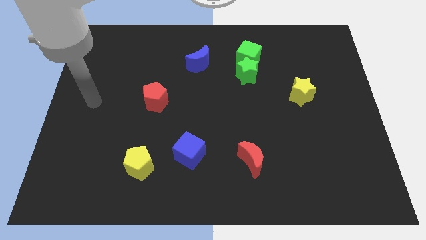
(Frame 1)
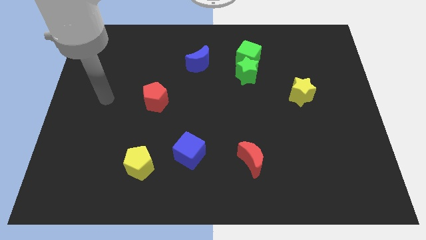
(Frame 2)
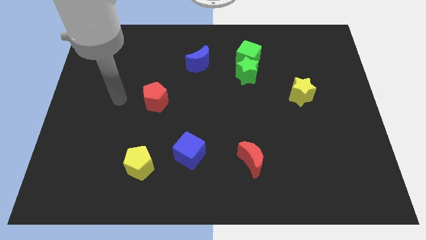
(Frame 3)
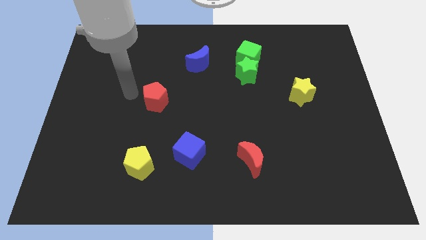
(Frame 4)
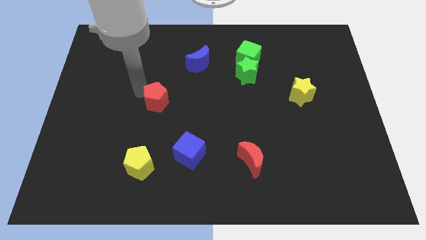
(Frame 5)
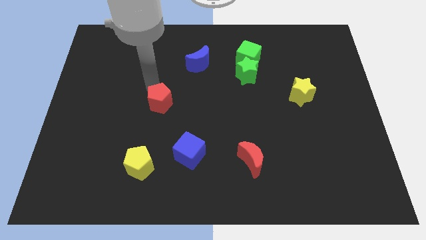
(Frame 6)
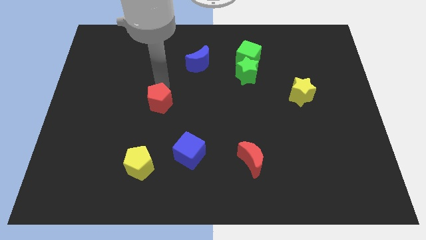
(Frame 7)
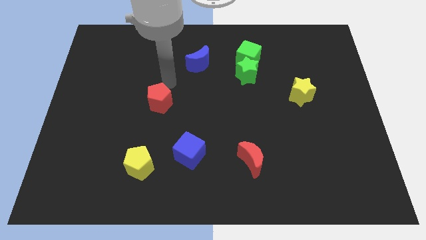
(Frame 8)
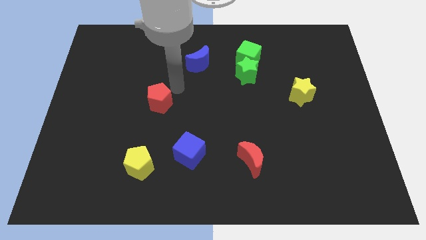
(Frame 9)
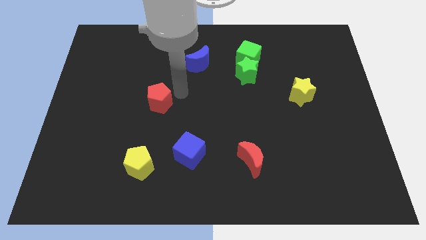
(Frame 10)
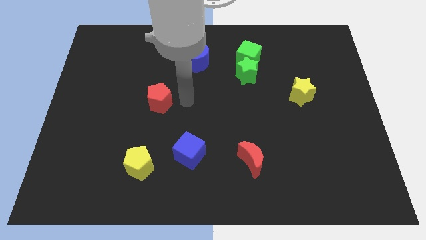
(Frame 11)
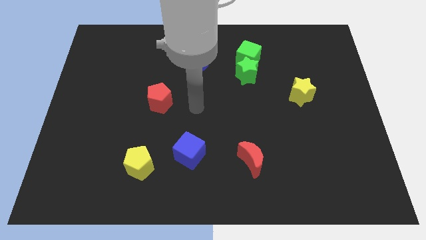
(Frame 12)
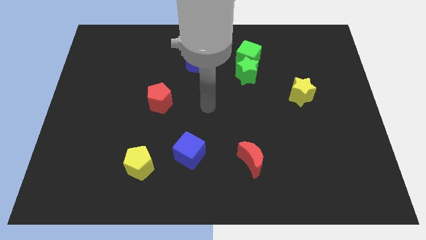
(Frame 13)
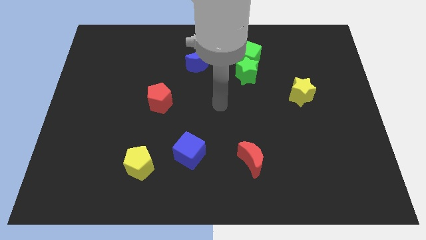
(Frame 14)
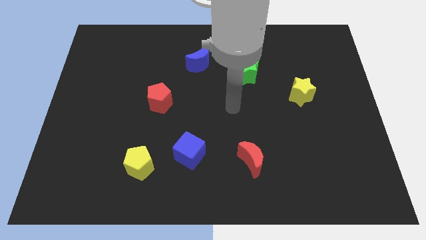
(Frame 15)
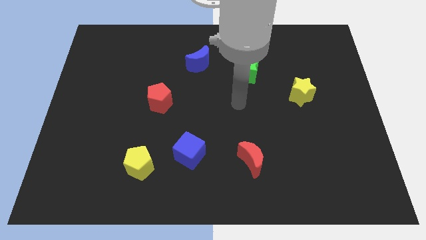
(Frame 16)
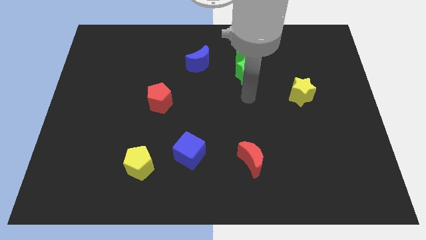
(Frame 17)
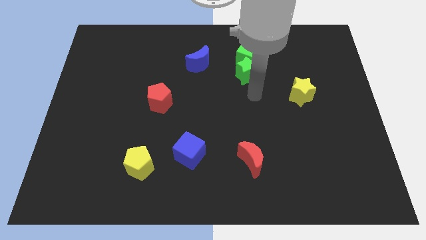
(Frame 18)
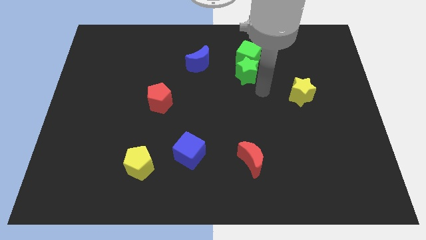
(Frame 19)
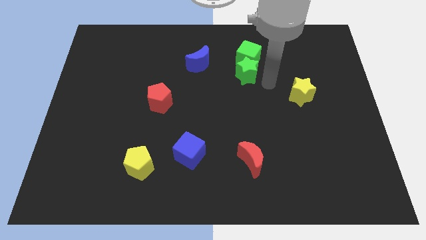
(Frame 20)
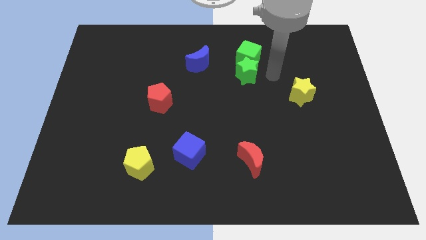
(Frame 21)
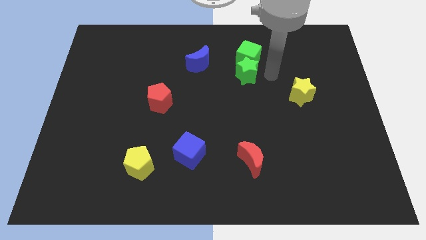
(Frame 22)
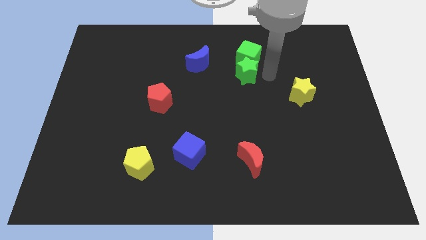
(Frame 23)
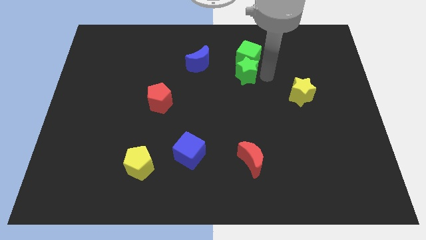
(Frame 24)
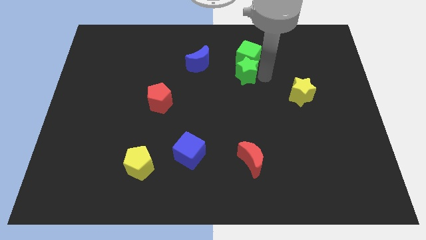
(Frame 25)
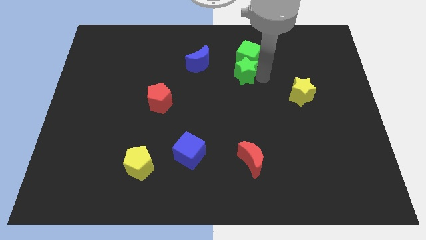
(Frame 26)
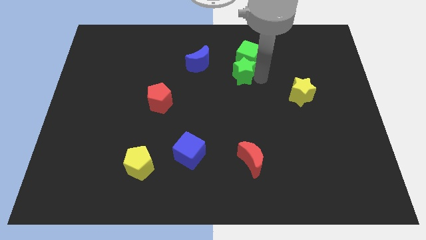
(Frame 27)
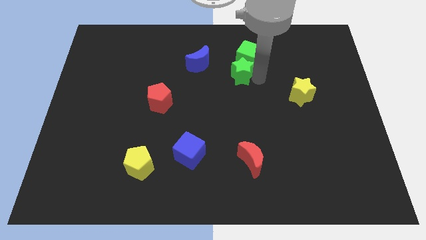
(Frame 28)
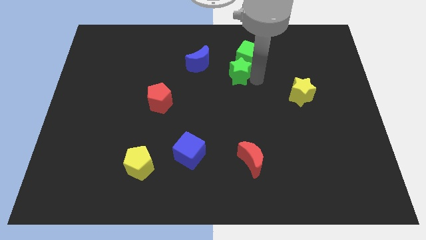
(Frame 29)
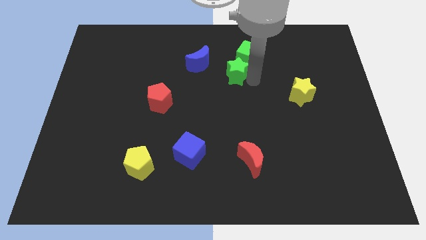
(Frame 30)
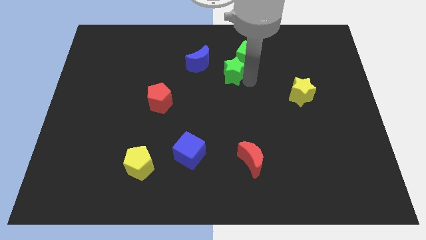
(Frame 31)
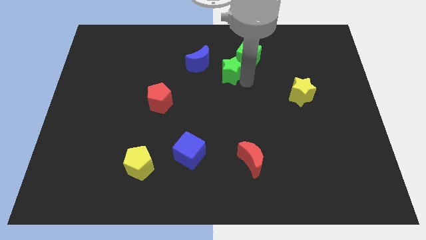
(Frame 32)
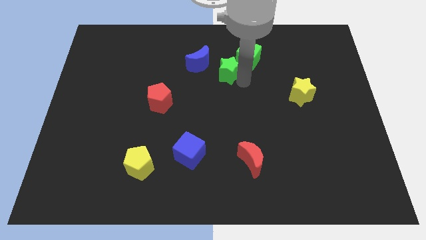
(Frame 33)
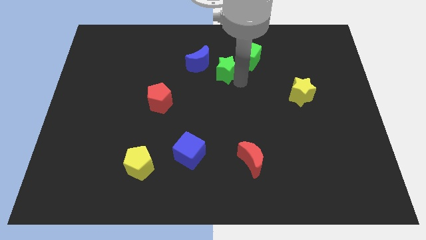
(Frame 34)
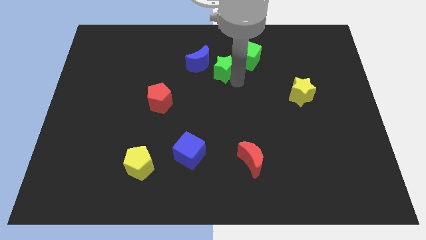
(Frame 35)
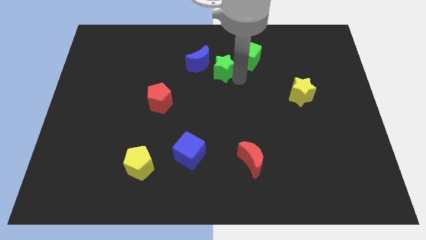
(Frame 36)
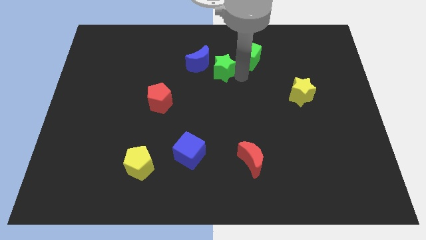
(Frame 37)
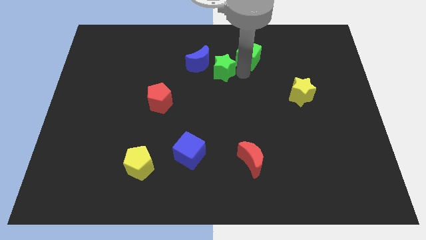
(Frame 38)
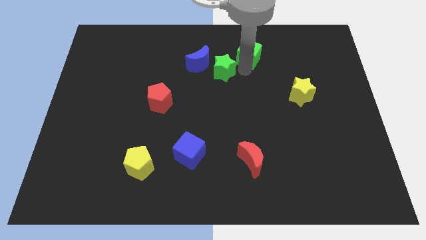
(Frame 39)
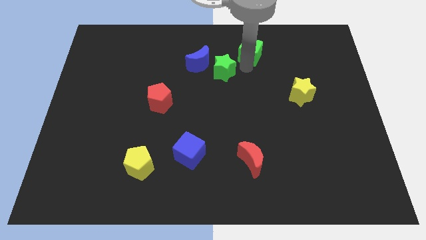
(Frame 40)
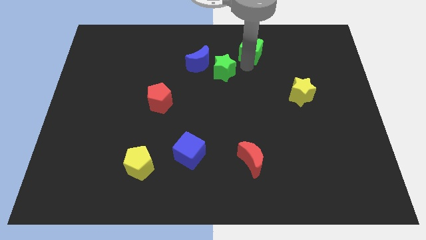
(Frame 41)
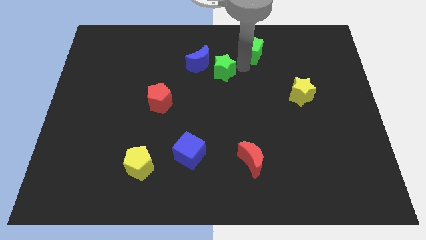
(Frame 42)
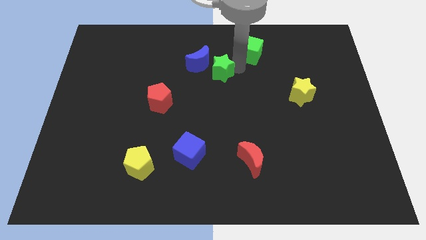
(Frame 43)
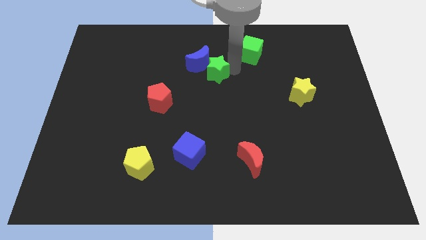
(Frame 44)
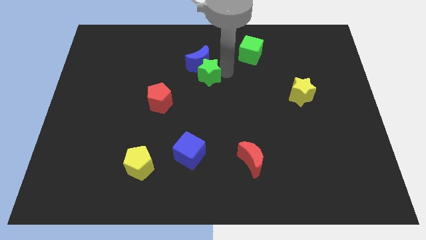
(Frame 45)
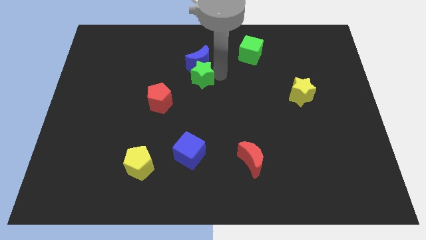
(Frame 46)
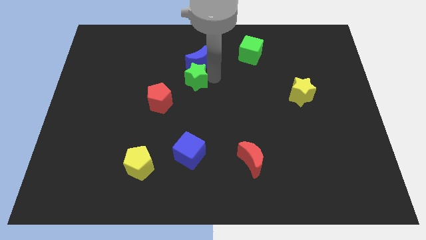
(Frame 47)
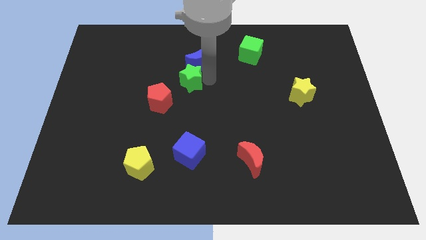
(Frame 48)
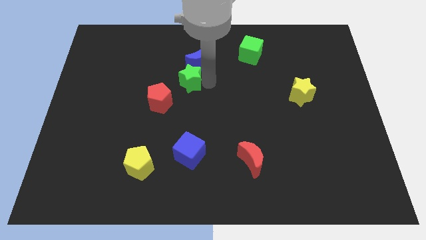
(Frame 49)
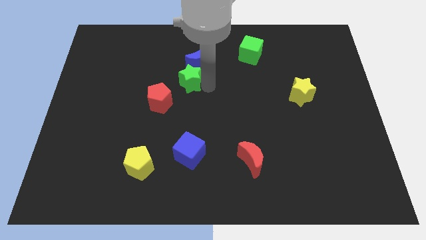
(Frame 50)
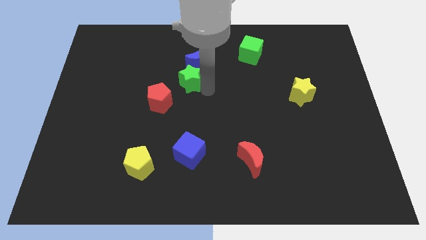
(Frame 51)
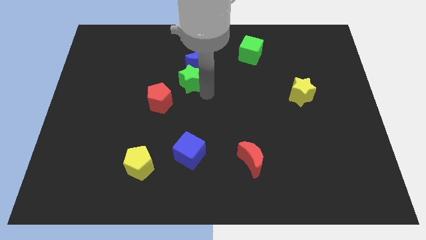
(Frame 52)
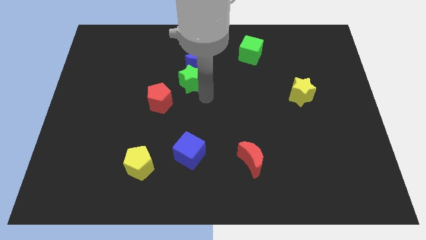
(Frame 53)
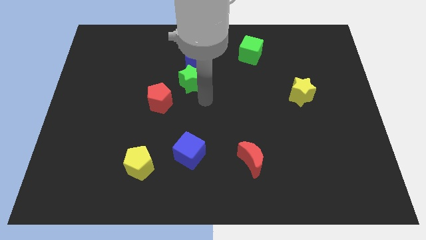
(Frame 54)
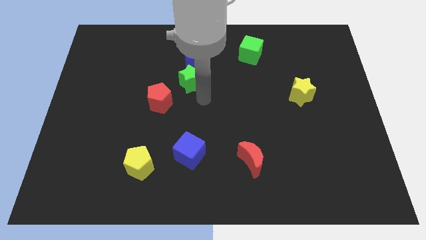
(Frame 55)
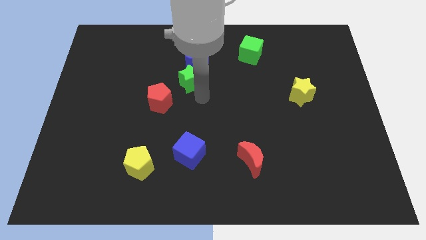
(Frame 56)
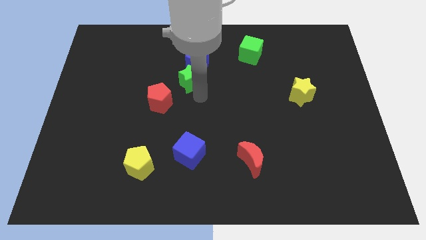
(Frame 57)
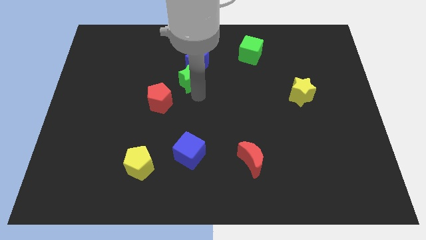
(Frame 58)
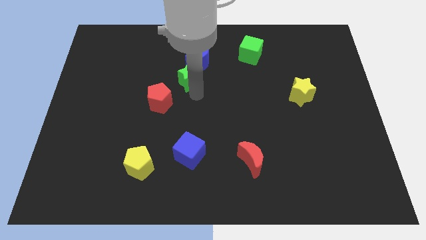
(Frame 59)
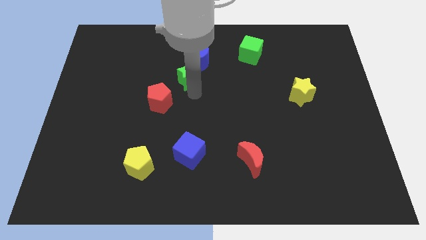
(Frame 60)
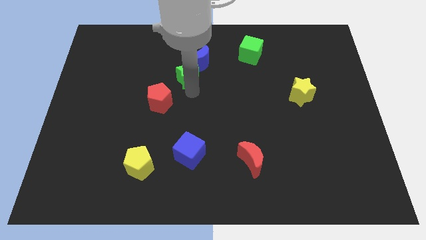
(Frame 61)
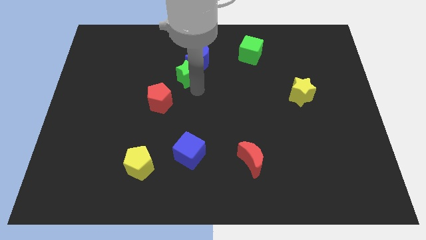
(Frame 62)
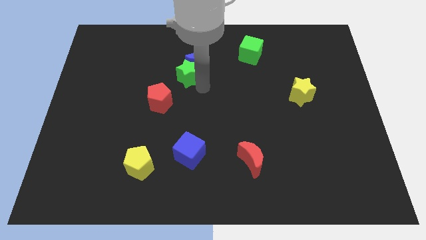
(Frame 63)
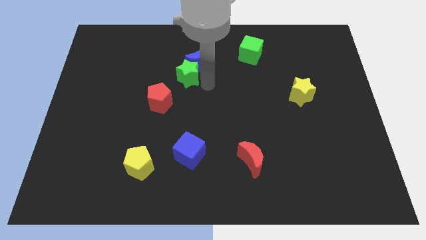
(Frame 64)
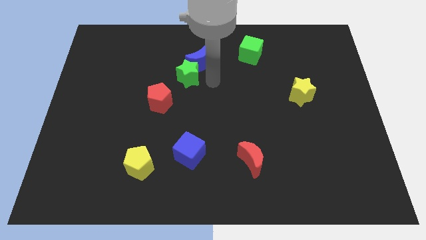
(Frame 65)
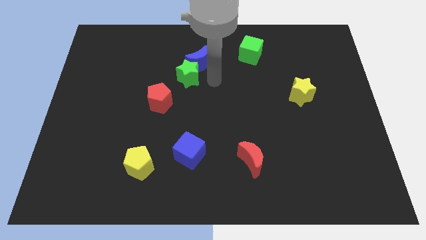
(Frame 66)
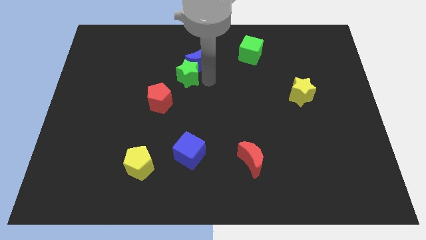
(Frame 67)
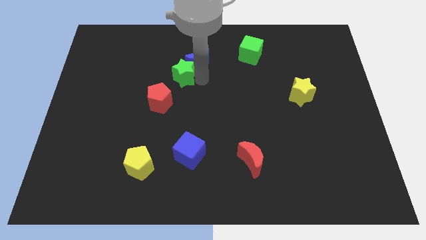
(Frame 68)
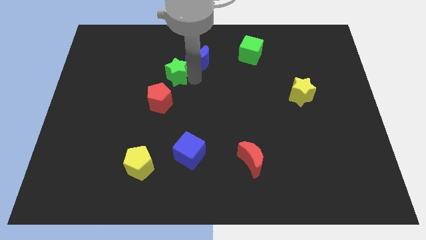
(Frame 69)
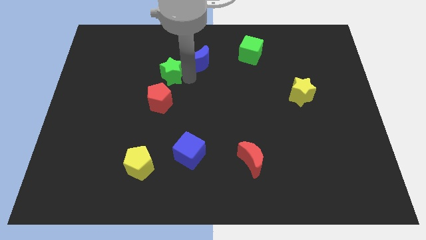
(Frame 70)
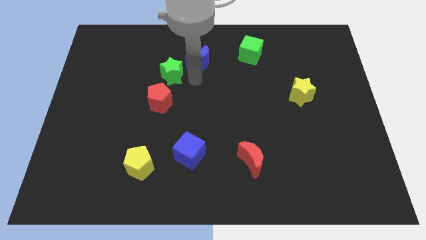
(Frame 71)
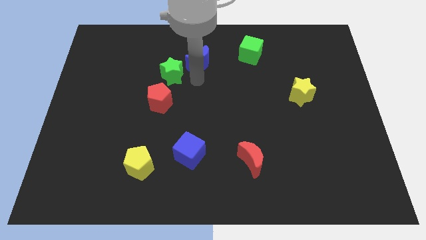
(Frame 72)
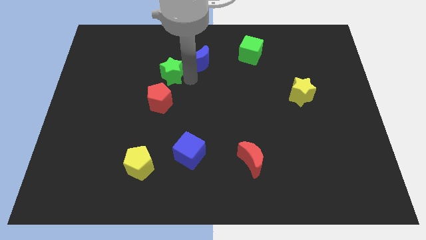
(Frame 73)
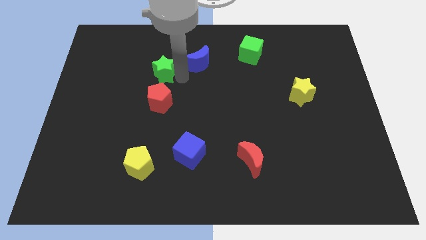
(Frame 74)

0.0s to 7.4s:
slide the green star left

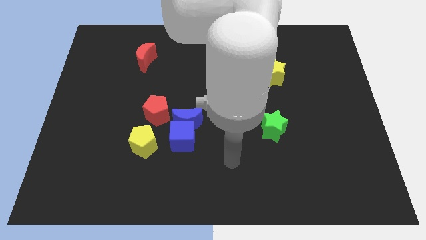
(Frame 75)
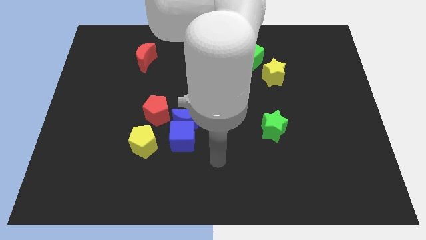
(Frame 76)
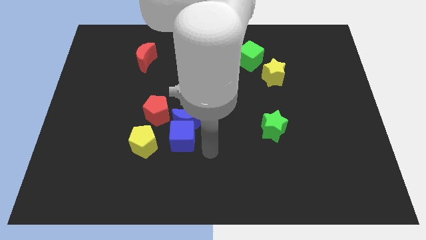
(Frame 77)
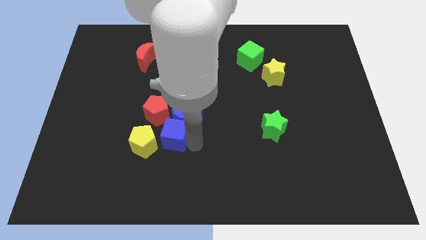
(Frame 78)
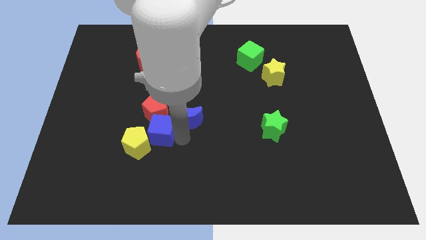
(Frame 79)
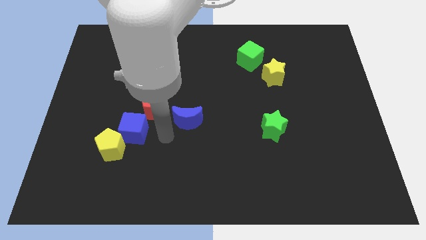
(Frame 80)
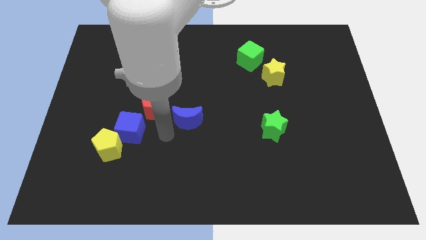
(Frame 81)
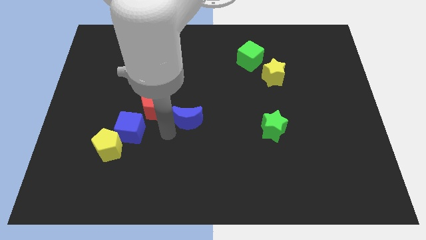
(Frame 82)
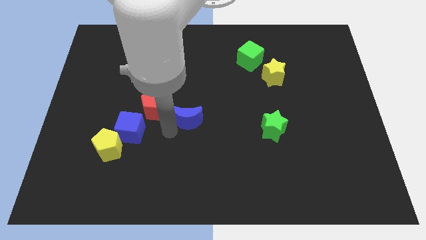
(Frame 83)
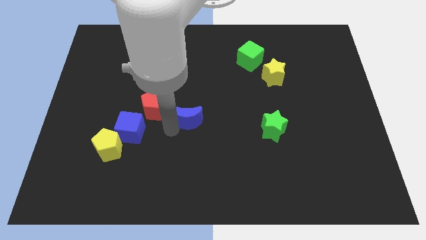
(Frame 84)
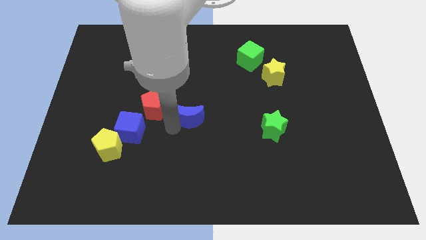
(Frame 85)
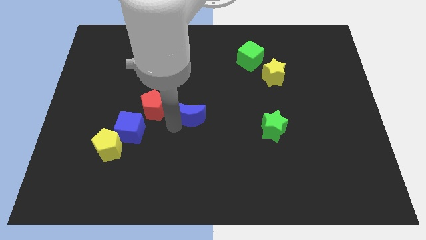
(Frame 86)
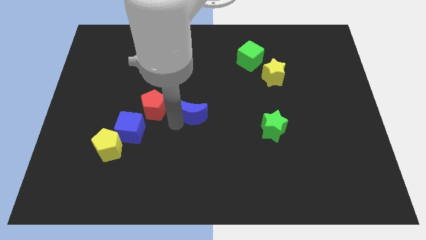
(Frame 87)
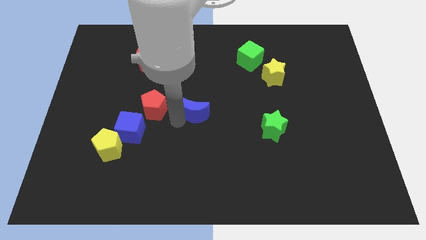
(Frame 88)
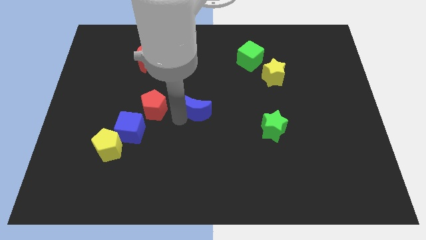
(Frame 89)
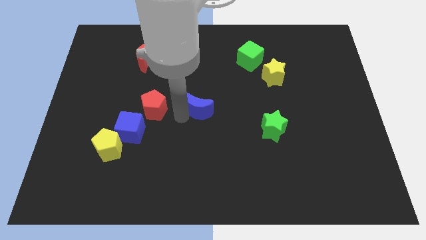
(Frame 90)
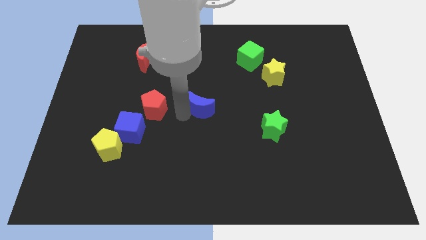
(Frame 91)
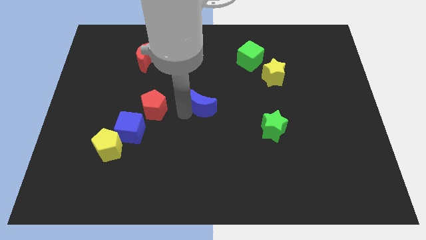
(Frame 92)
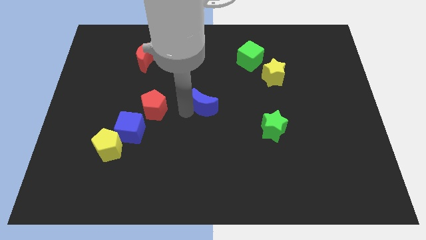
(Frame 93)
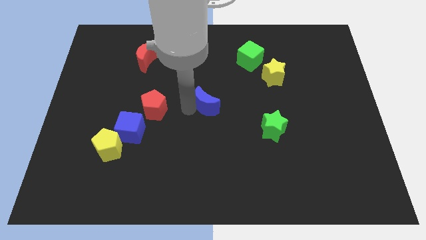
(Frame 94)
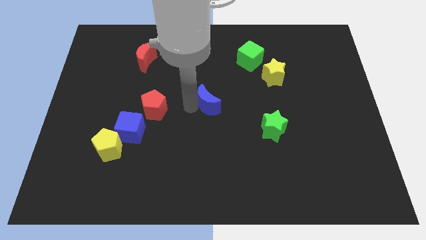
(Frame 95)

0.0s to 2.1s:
push the blue moon slightly upwards and right diagonally
